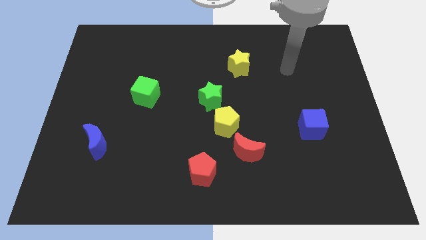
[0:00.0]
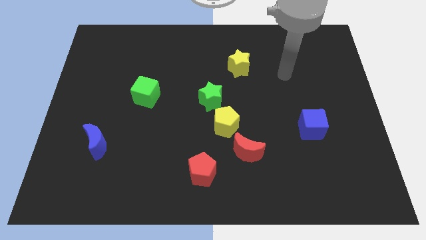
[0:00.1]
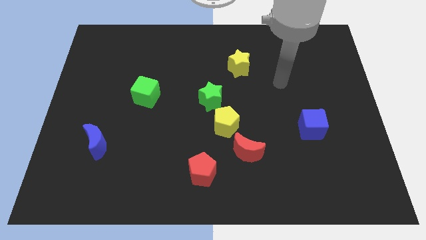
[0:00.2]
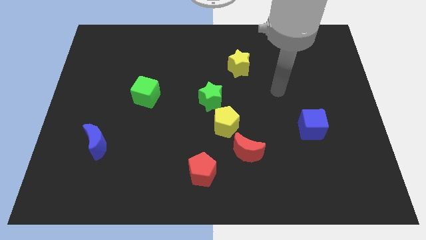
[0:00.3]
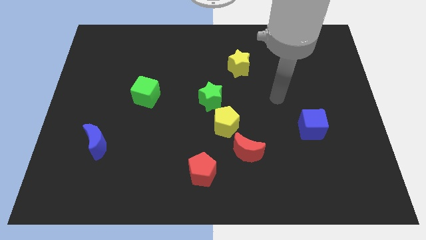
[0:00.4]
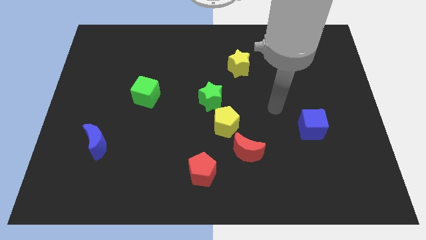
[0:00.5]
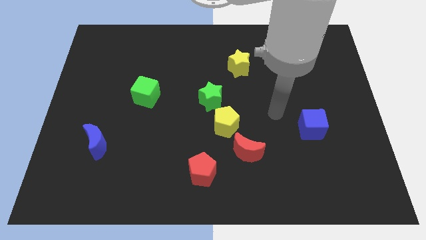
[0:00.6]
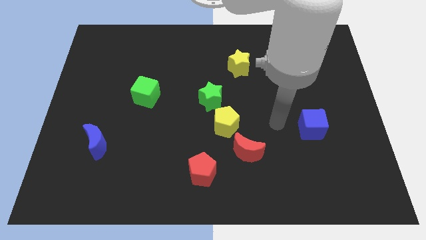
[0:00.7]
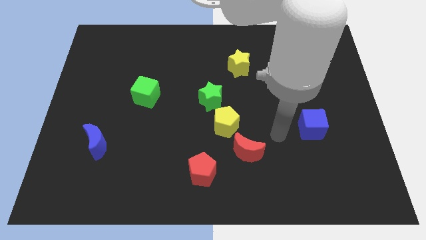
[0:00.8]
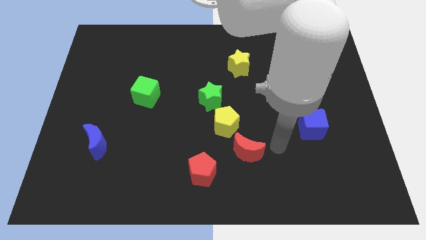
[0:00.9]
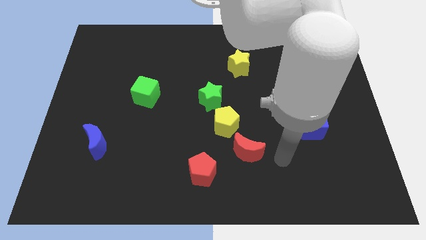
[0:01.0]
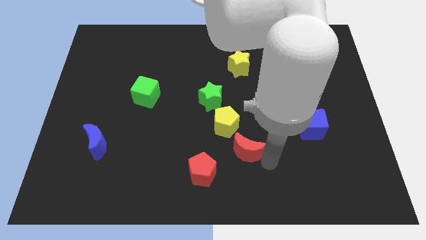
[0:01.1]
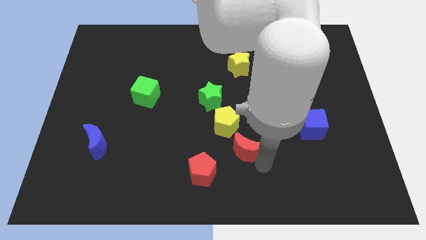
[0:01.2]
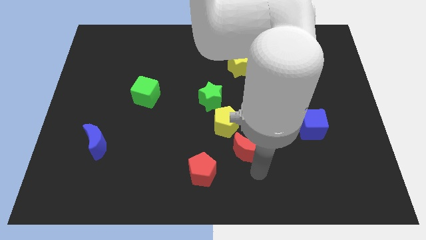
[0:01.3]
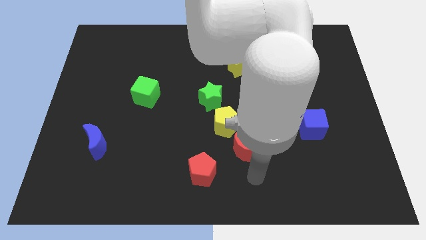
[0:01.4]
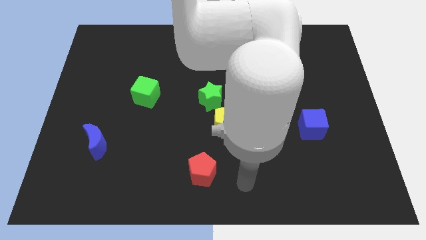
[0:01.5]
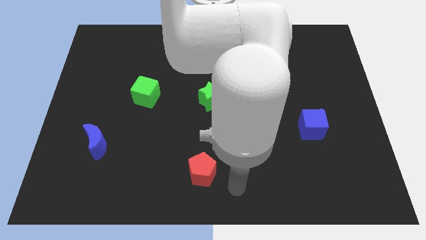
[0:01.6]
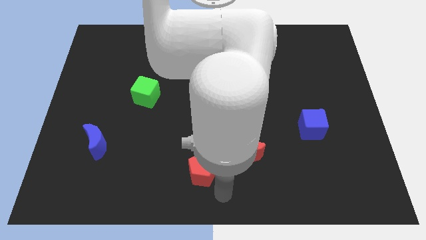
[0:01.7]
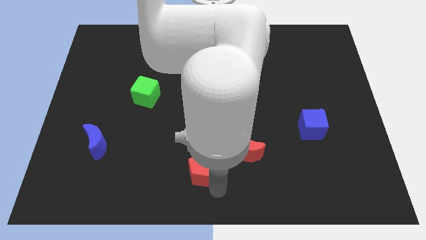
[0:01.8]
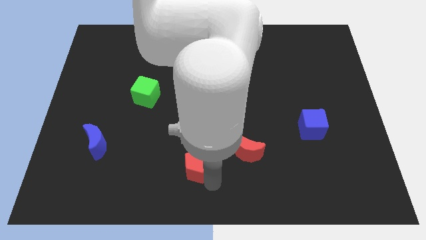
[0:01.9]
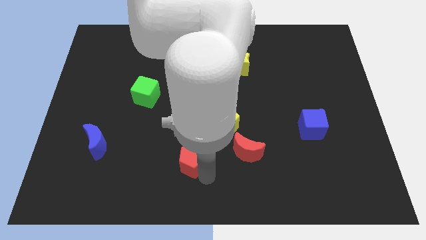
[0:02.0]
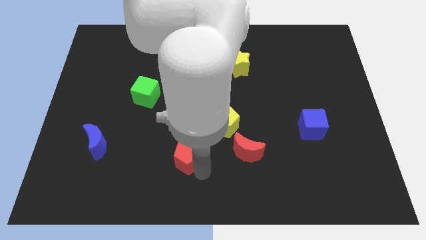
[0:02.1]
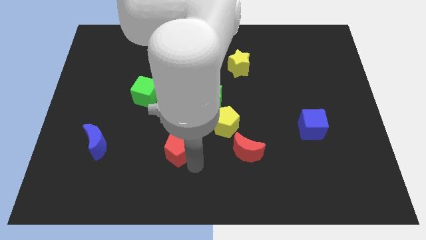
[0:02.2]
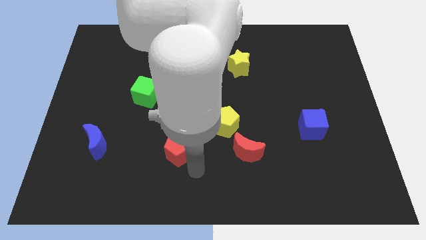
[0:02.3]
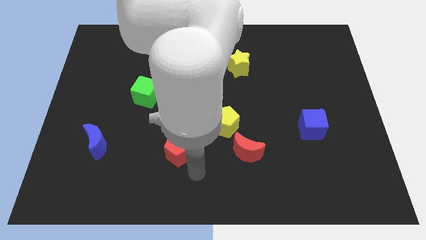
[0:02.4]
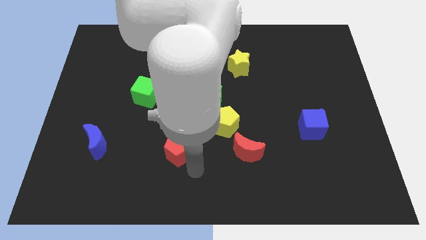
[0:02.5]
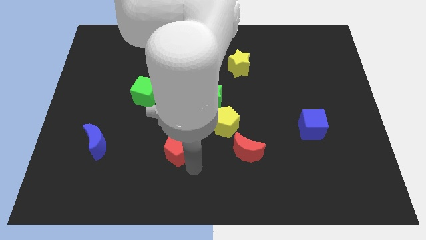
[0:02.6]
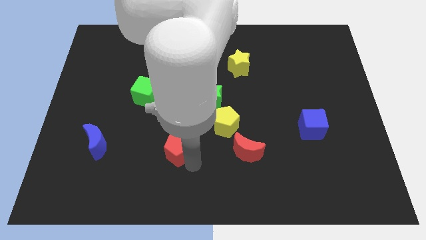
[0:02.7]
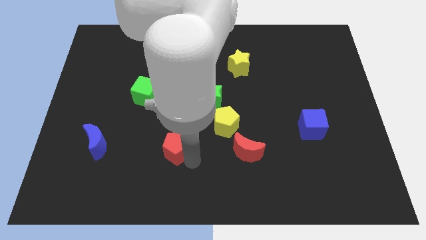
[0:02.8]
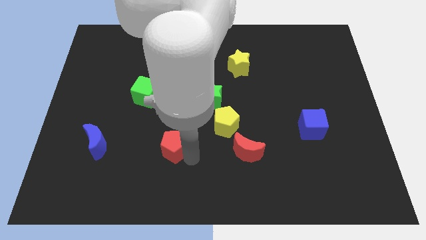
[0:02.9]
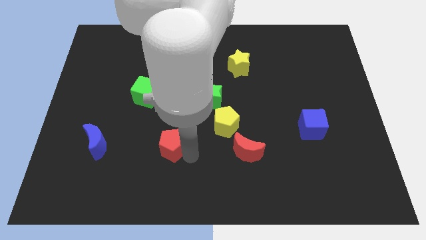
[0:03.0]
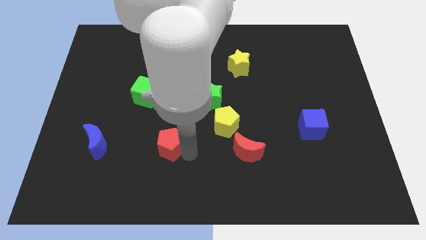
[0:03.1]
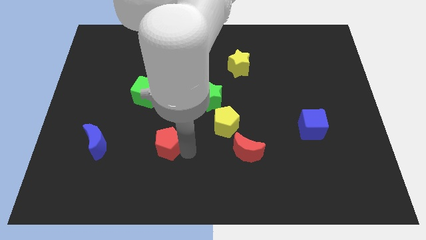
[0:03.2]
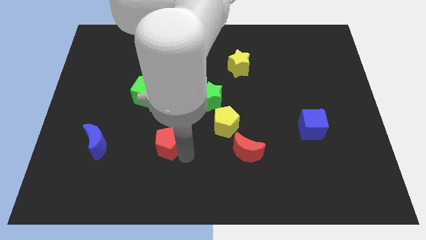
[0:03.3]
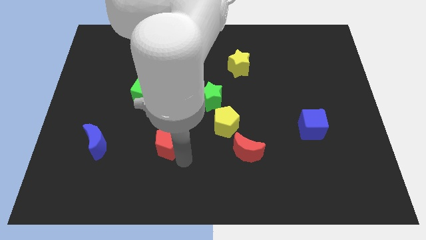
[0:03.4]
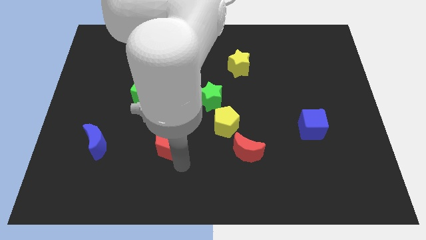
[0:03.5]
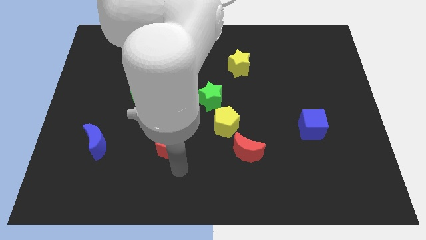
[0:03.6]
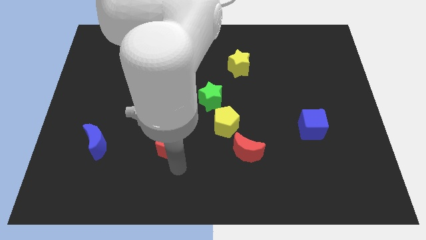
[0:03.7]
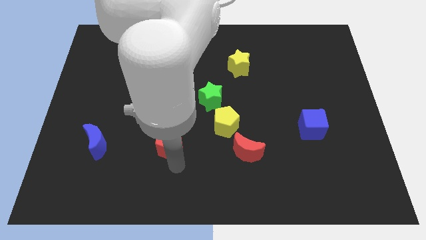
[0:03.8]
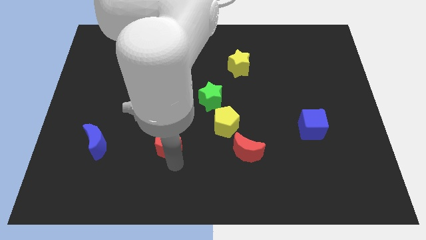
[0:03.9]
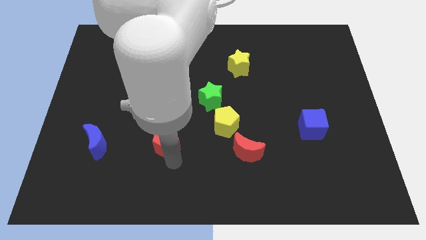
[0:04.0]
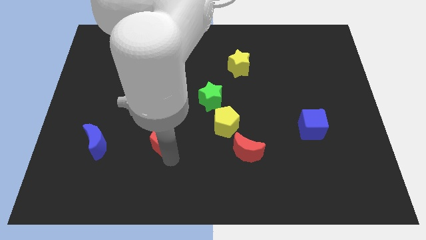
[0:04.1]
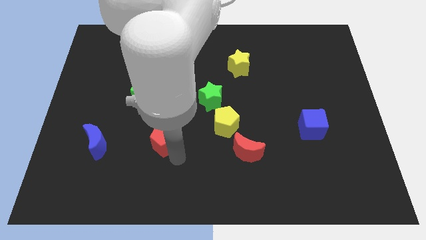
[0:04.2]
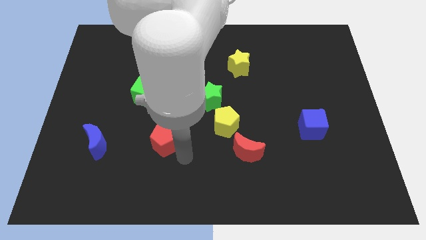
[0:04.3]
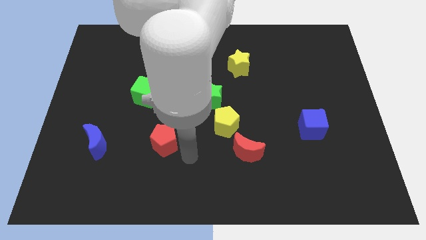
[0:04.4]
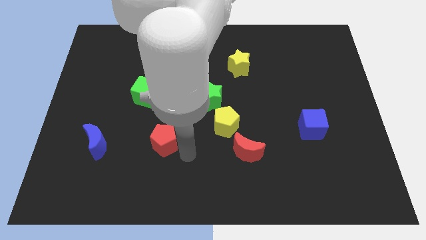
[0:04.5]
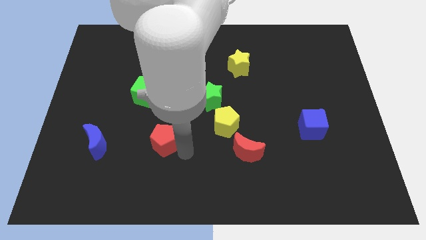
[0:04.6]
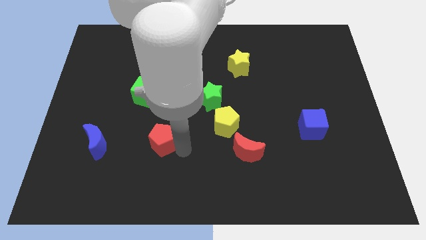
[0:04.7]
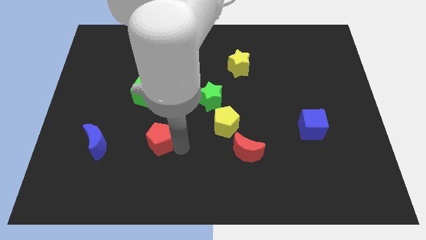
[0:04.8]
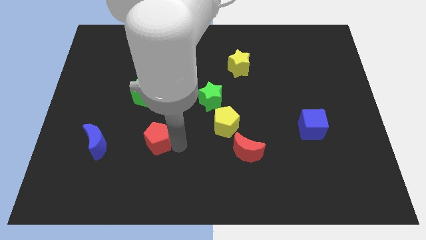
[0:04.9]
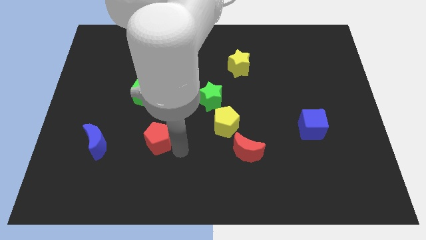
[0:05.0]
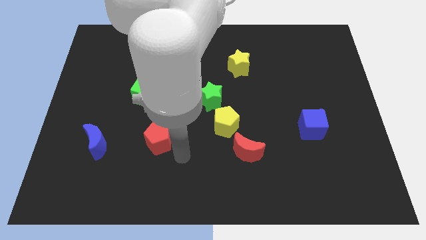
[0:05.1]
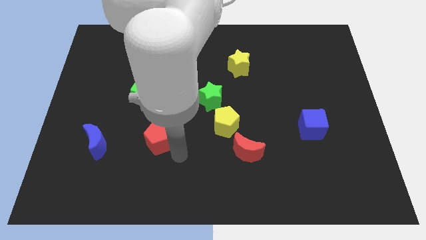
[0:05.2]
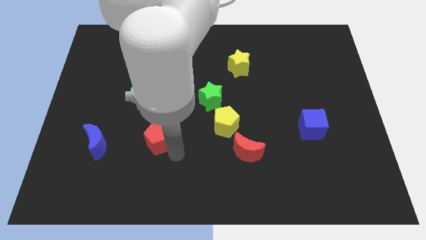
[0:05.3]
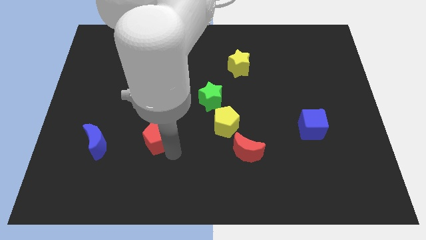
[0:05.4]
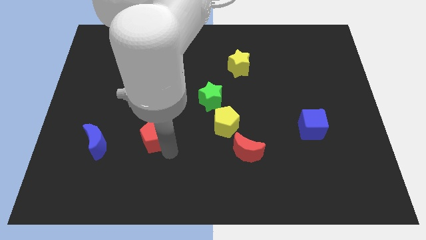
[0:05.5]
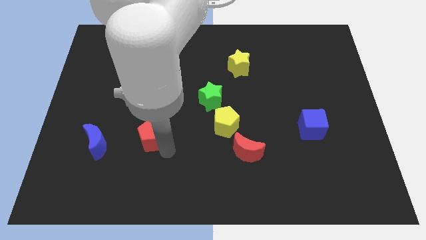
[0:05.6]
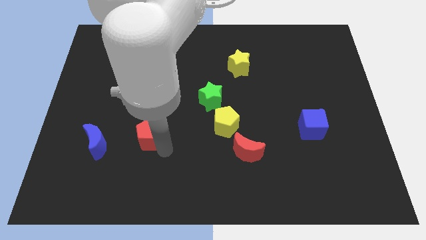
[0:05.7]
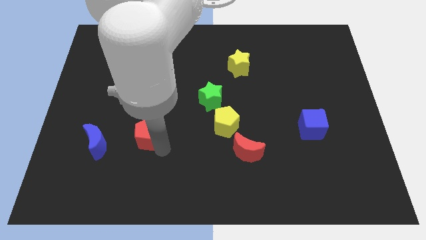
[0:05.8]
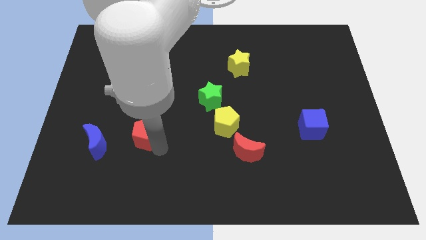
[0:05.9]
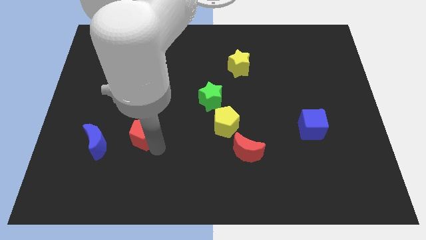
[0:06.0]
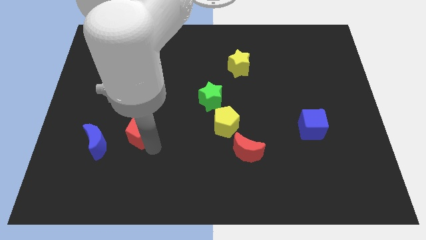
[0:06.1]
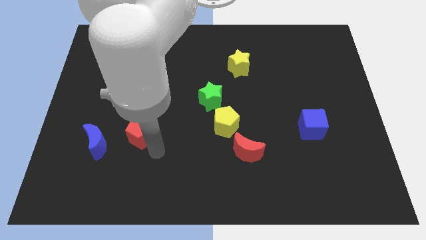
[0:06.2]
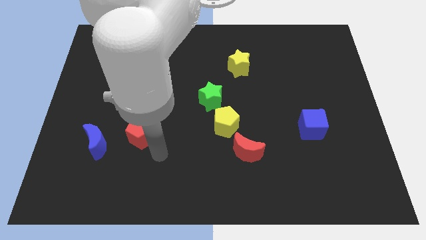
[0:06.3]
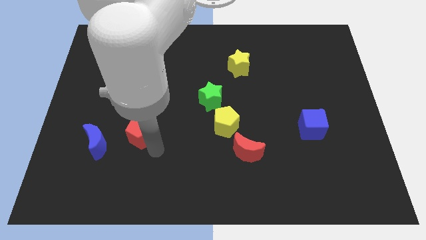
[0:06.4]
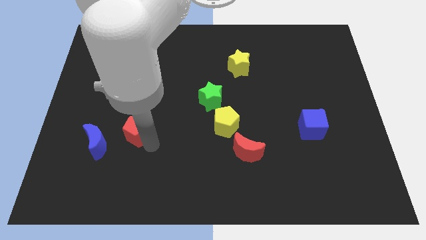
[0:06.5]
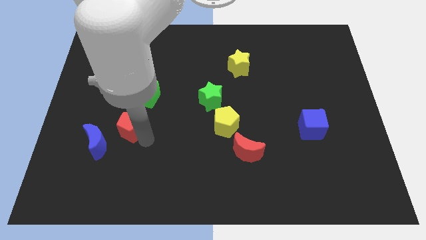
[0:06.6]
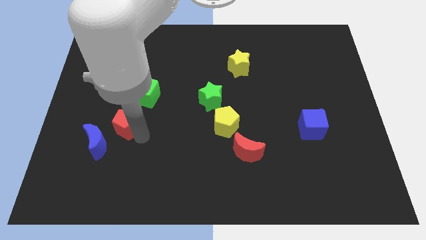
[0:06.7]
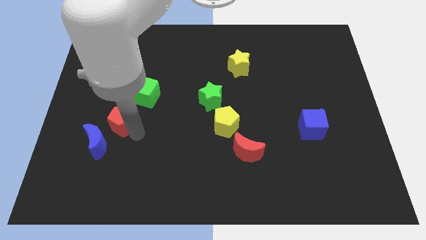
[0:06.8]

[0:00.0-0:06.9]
move the red pentagon diagonally upwards and left

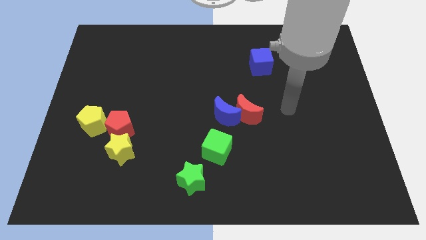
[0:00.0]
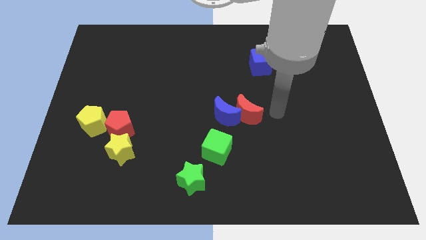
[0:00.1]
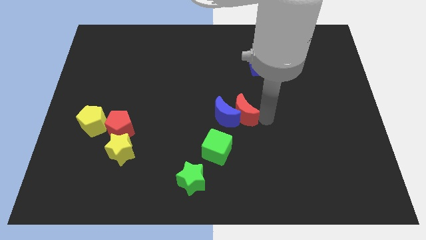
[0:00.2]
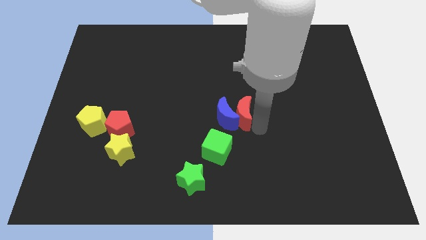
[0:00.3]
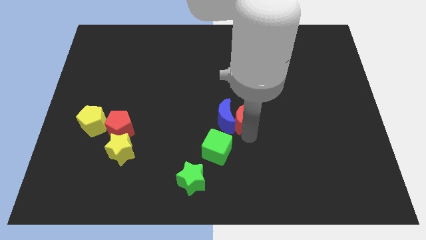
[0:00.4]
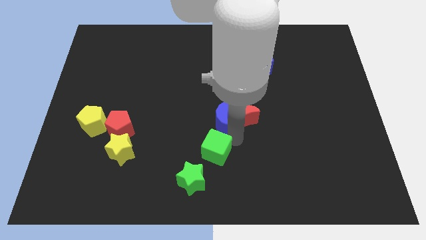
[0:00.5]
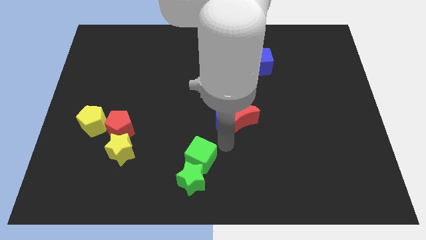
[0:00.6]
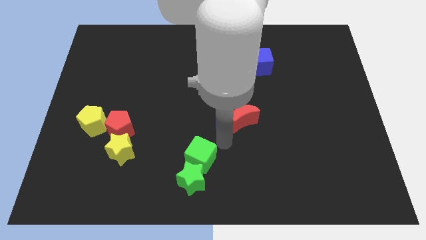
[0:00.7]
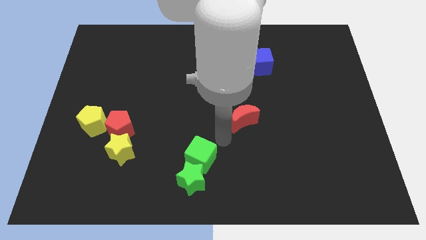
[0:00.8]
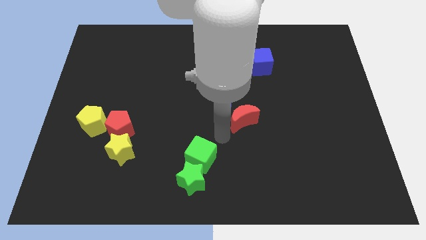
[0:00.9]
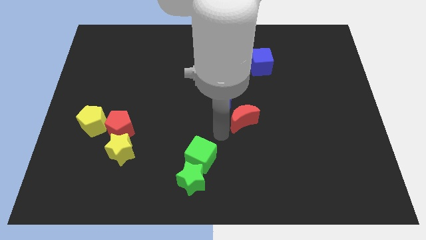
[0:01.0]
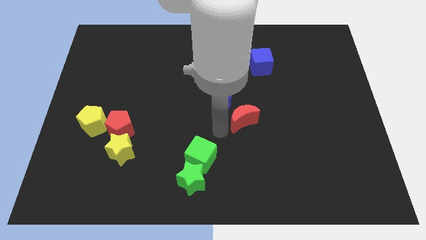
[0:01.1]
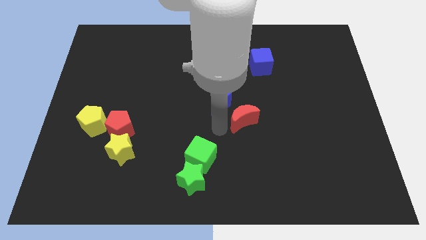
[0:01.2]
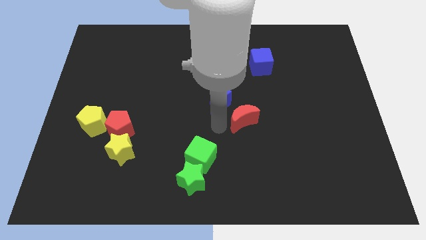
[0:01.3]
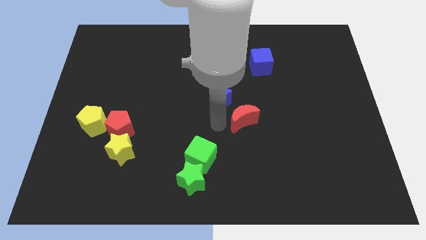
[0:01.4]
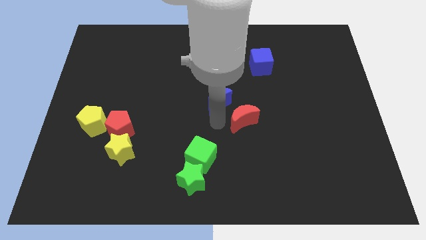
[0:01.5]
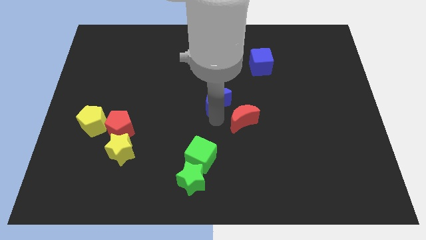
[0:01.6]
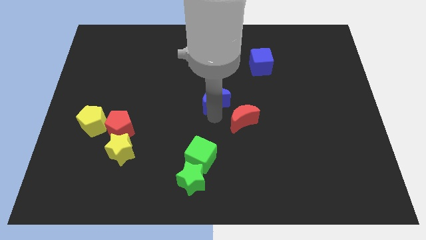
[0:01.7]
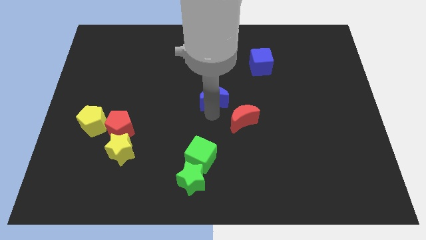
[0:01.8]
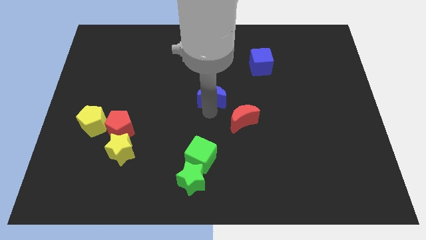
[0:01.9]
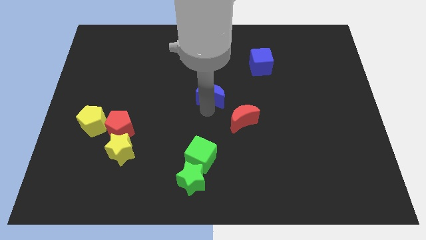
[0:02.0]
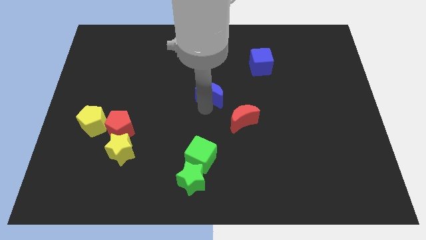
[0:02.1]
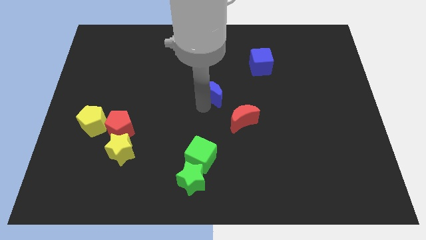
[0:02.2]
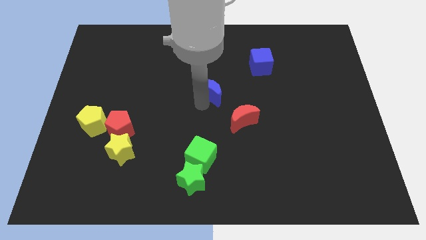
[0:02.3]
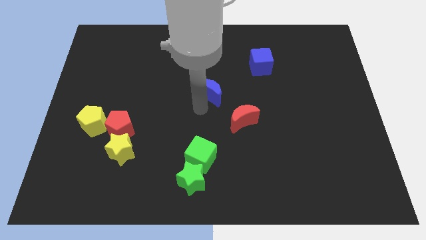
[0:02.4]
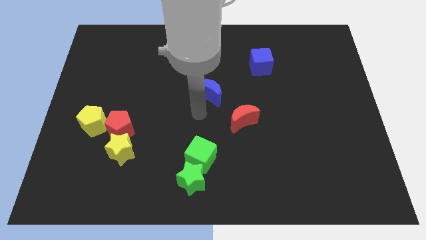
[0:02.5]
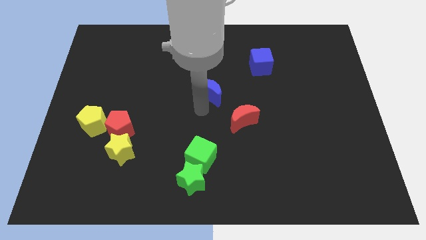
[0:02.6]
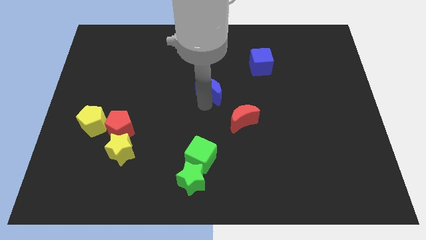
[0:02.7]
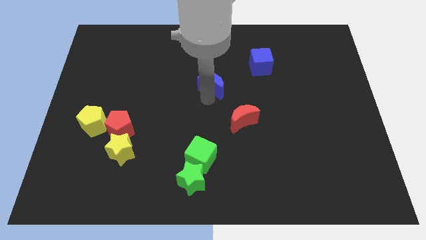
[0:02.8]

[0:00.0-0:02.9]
slightly move the blue moon upwards
